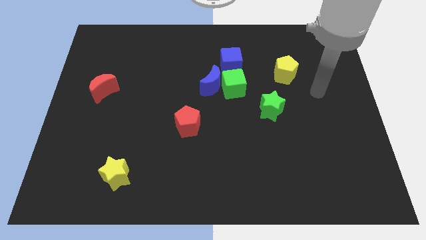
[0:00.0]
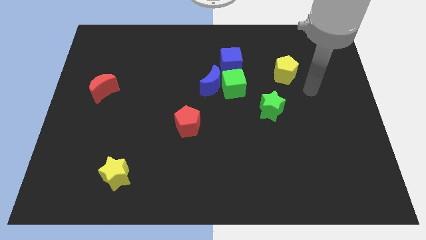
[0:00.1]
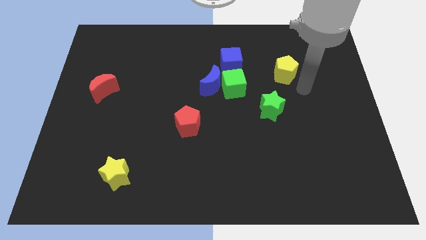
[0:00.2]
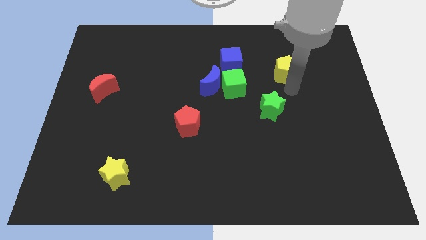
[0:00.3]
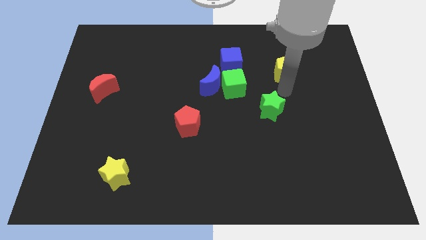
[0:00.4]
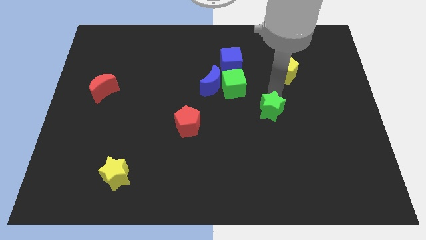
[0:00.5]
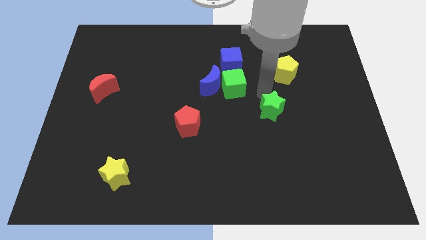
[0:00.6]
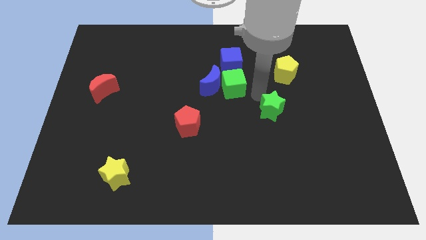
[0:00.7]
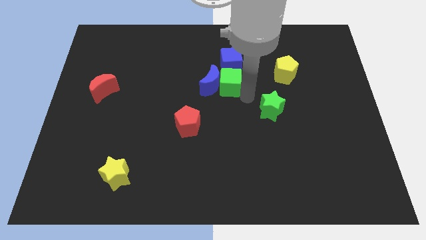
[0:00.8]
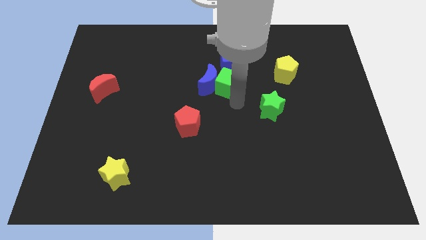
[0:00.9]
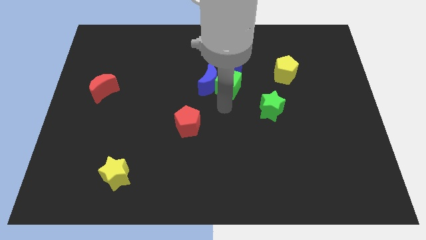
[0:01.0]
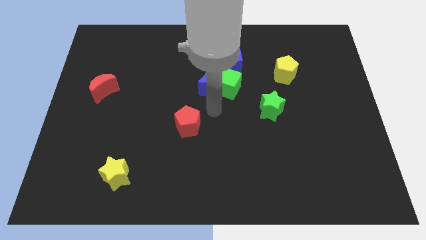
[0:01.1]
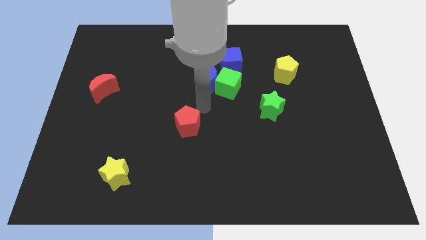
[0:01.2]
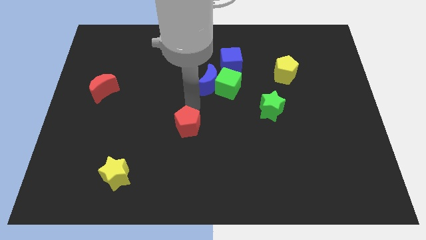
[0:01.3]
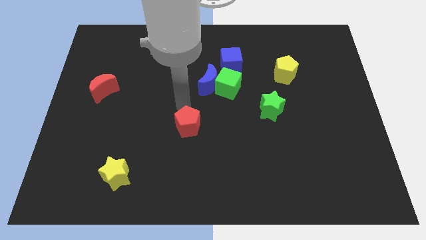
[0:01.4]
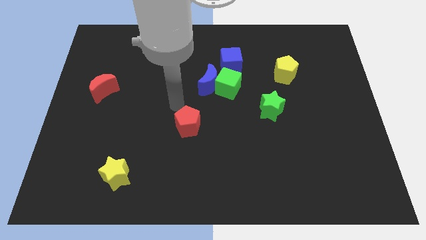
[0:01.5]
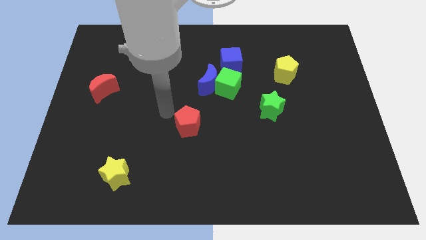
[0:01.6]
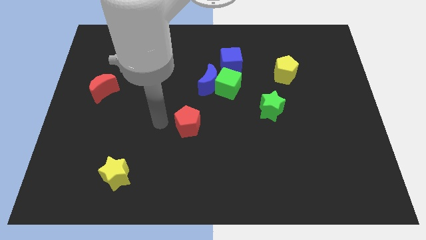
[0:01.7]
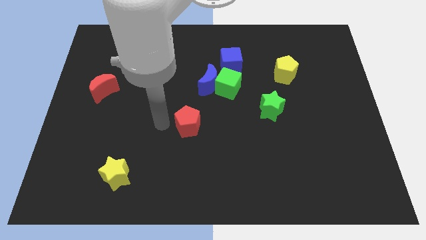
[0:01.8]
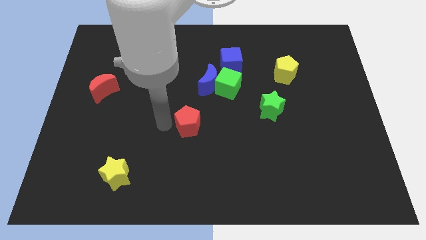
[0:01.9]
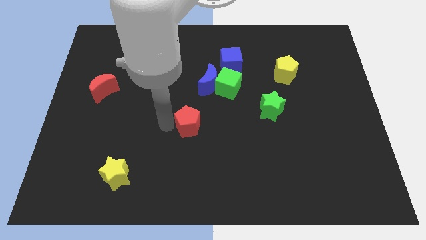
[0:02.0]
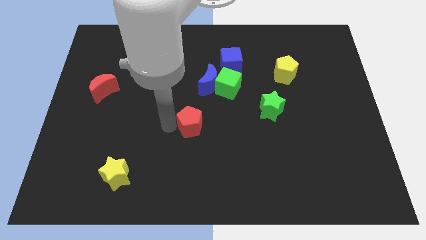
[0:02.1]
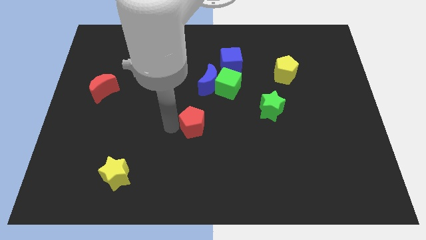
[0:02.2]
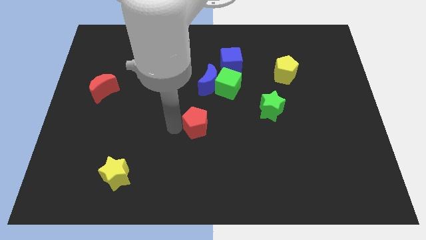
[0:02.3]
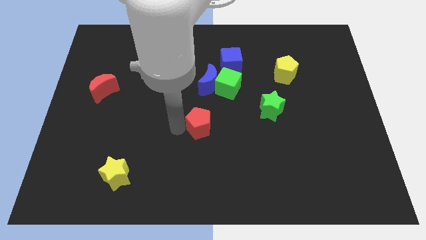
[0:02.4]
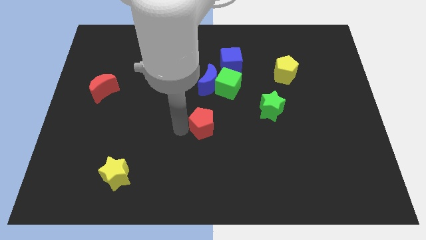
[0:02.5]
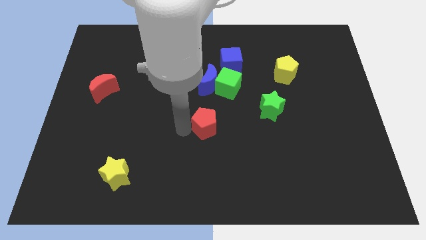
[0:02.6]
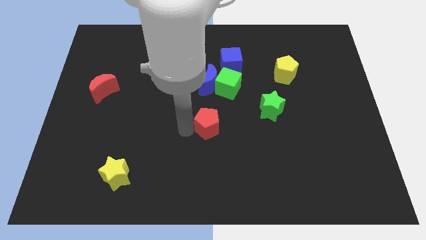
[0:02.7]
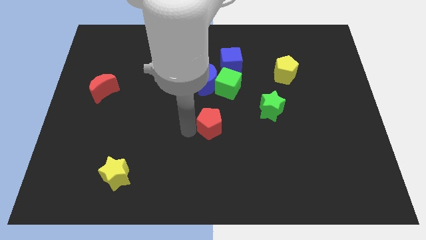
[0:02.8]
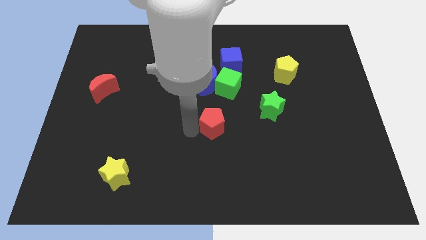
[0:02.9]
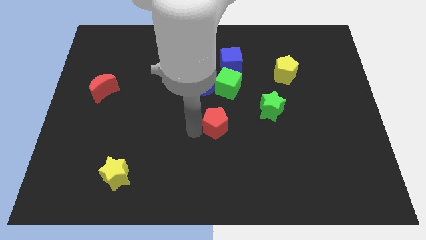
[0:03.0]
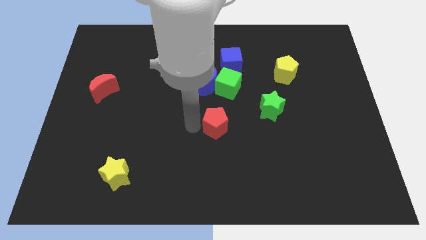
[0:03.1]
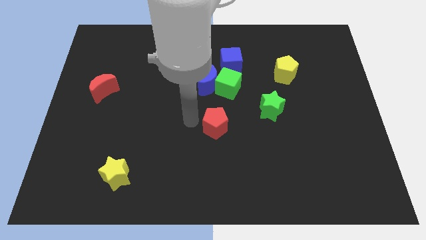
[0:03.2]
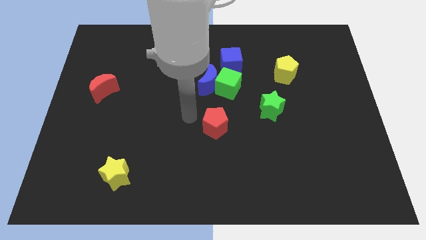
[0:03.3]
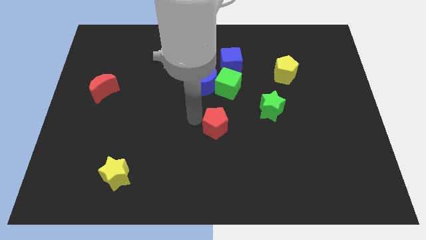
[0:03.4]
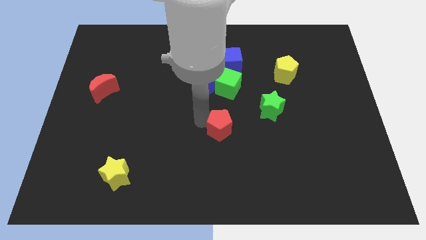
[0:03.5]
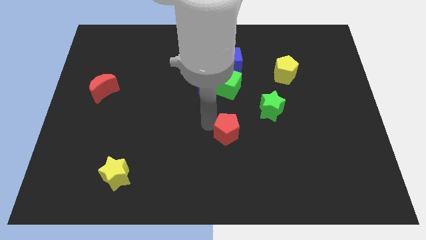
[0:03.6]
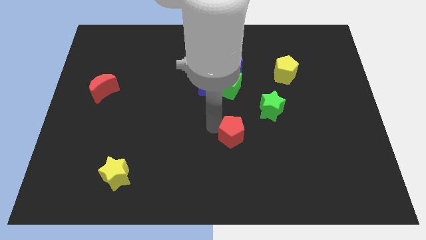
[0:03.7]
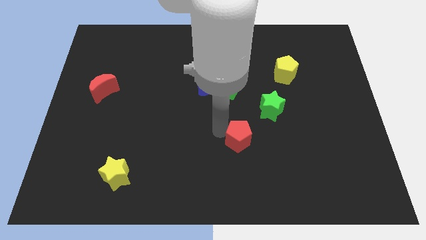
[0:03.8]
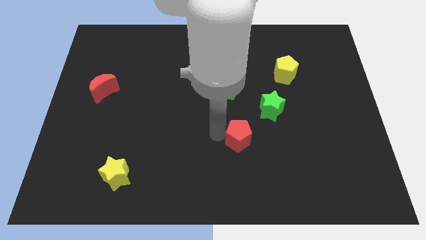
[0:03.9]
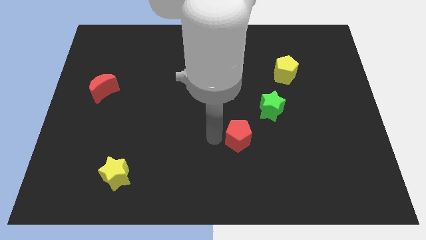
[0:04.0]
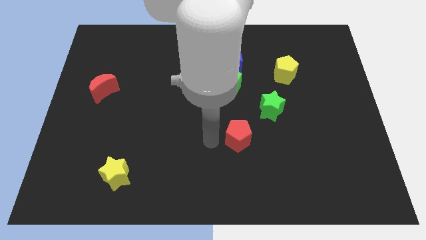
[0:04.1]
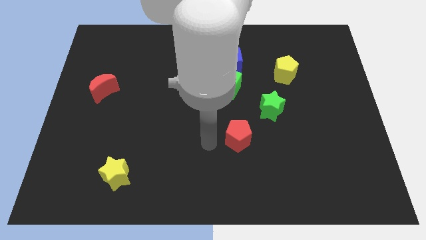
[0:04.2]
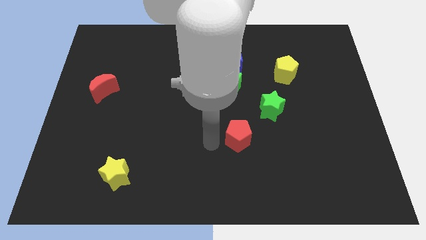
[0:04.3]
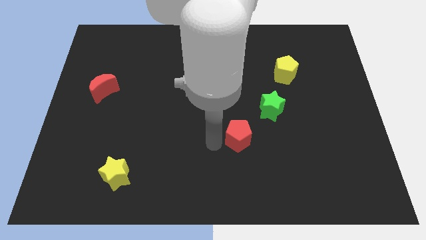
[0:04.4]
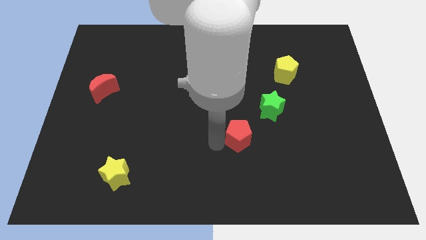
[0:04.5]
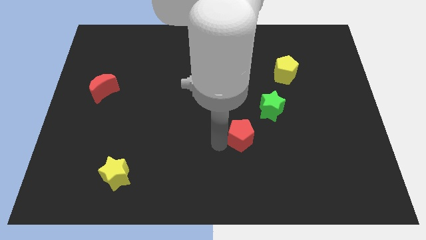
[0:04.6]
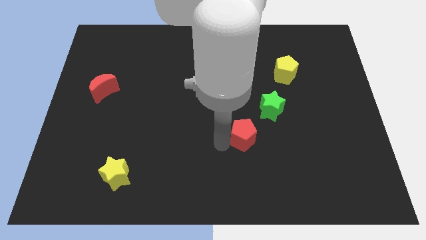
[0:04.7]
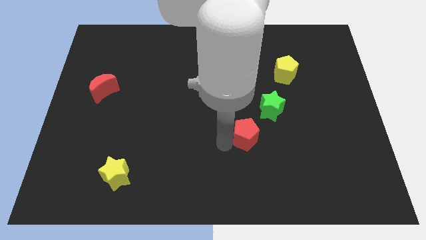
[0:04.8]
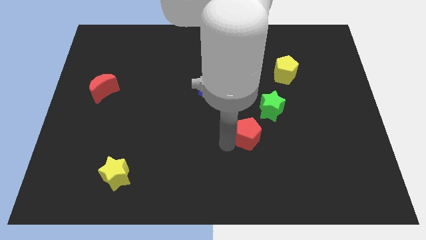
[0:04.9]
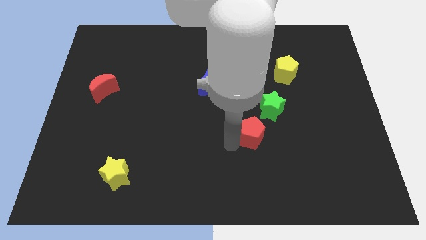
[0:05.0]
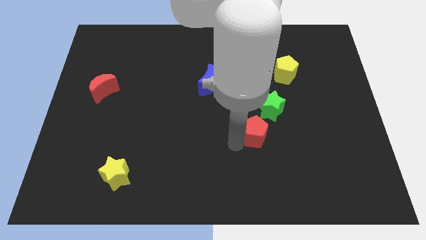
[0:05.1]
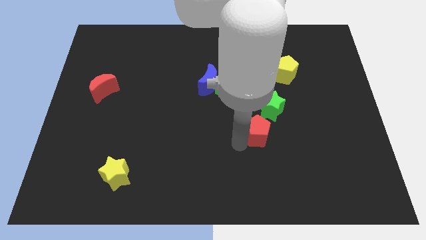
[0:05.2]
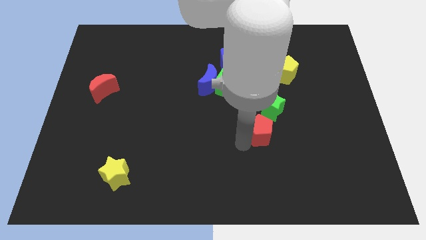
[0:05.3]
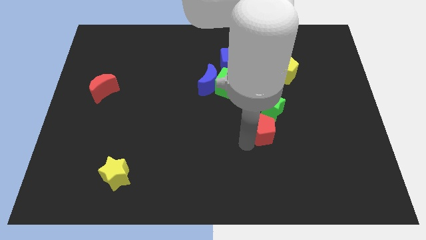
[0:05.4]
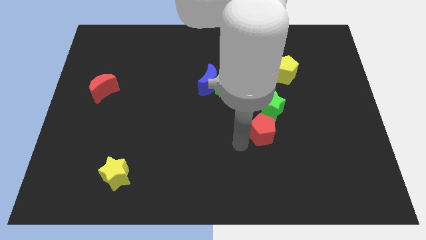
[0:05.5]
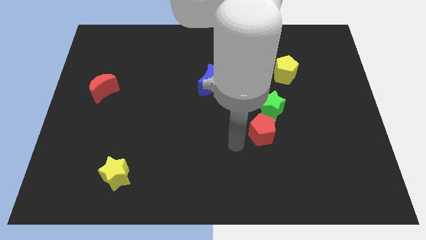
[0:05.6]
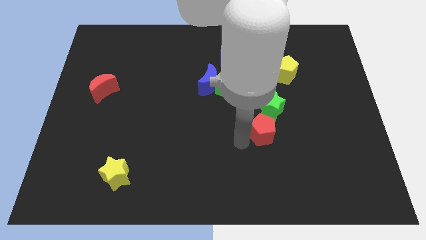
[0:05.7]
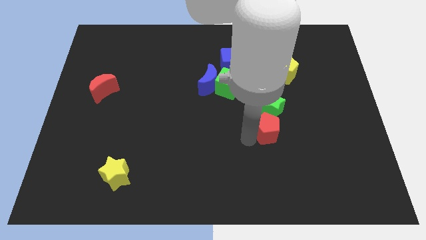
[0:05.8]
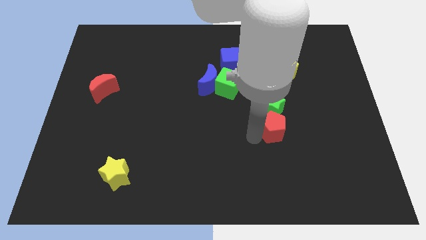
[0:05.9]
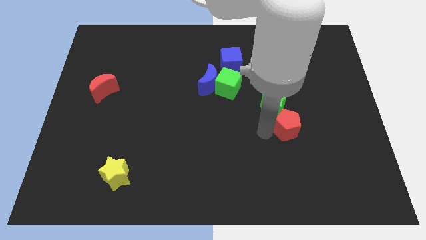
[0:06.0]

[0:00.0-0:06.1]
move the red pentagon right

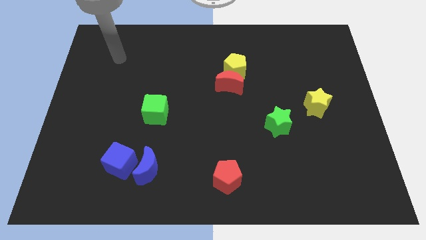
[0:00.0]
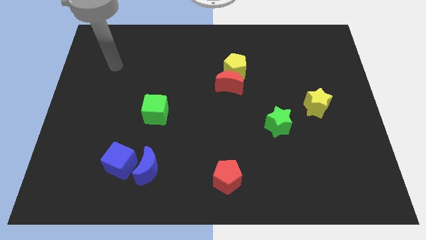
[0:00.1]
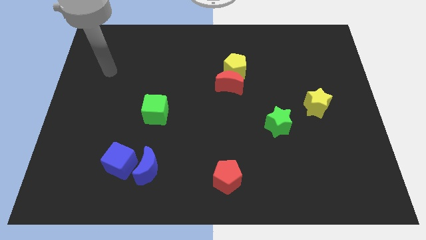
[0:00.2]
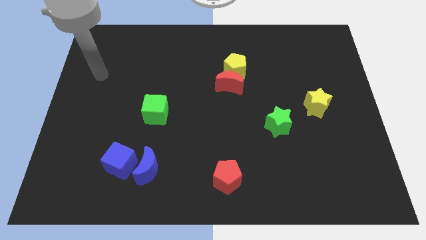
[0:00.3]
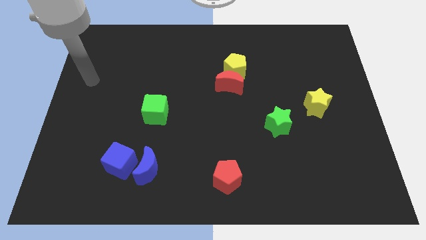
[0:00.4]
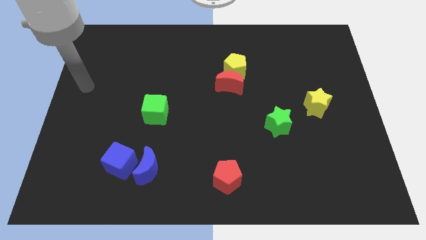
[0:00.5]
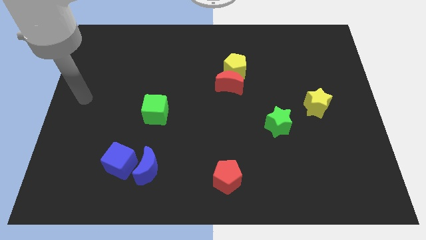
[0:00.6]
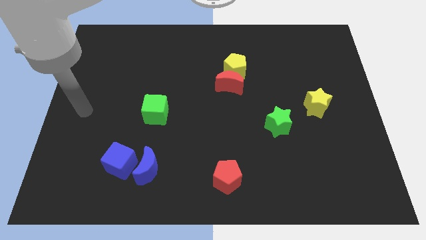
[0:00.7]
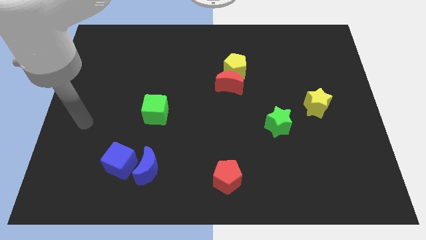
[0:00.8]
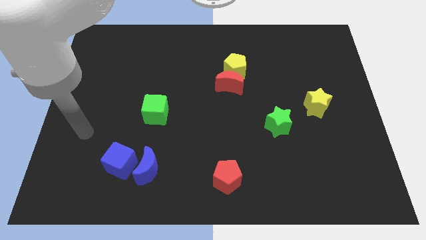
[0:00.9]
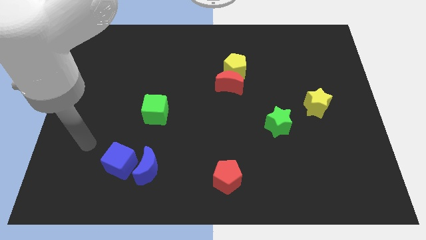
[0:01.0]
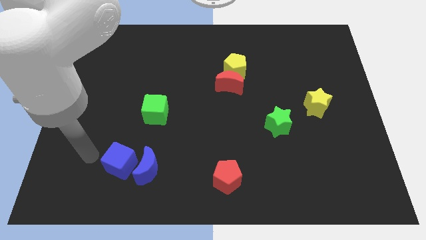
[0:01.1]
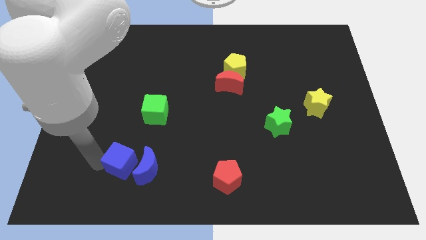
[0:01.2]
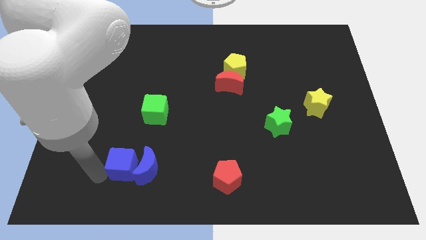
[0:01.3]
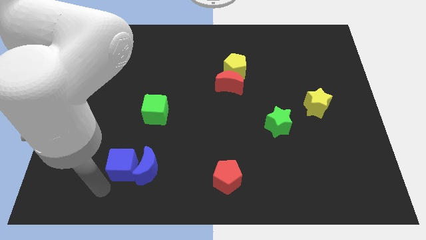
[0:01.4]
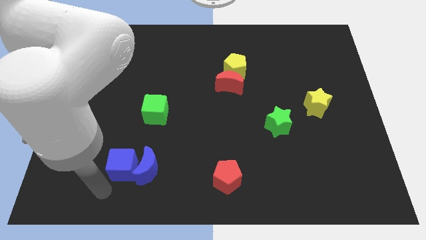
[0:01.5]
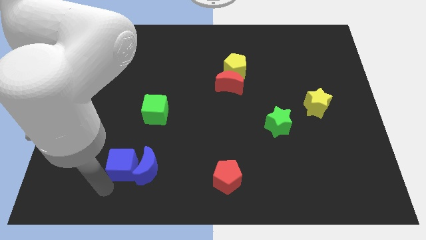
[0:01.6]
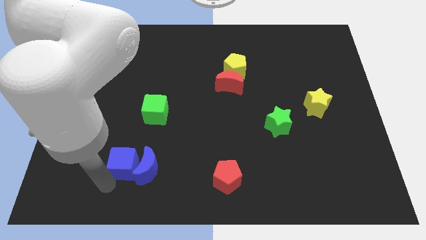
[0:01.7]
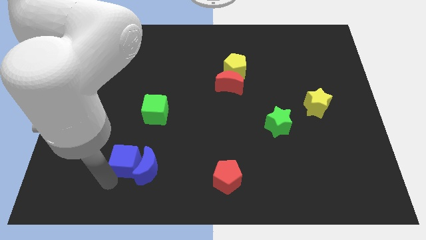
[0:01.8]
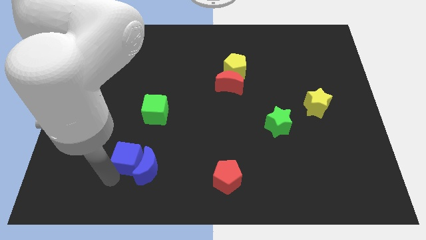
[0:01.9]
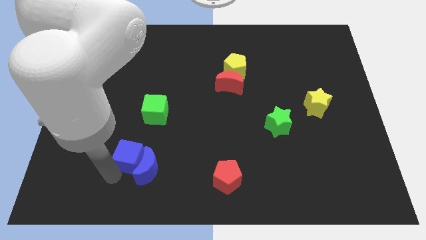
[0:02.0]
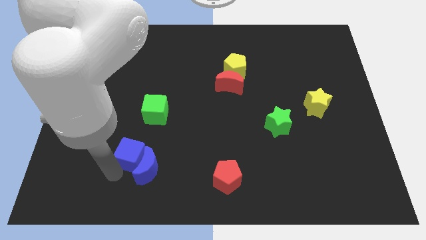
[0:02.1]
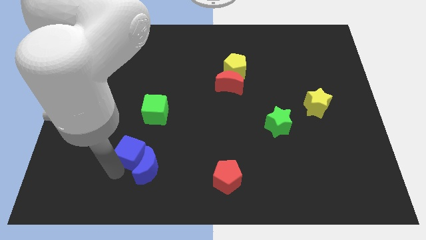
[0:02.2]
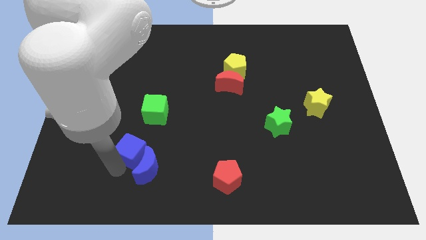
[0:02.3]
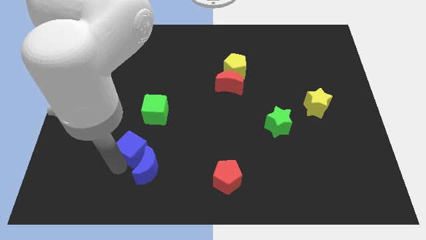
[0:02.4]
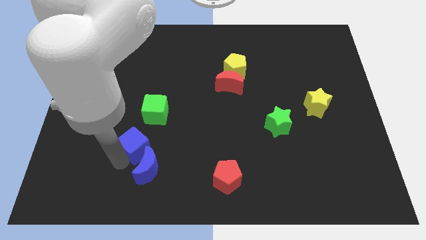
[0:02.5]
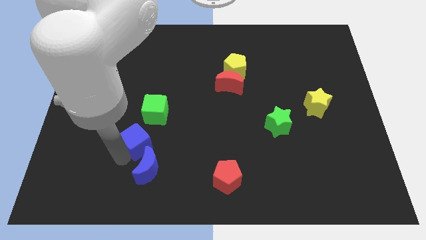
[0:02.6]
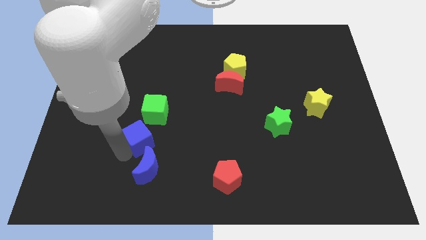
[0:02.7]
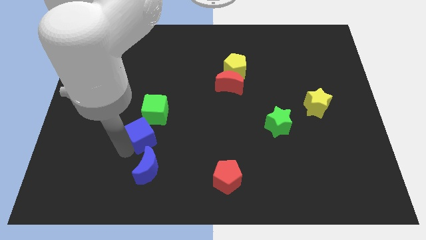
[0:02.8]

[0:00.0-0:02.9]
slightly push the blue cube upwards and then to the right
